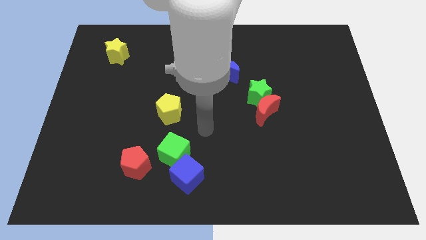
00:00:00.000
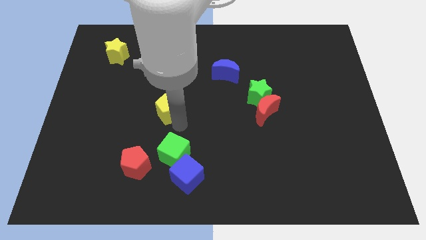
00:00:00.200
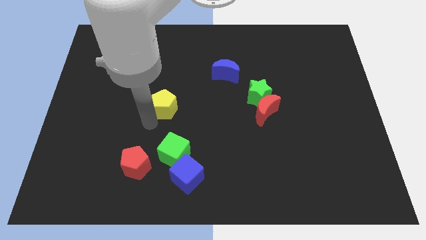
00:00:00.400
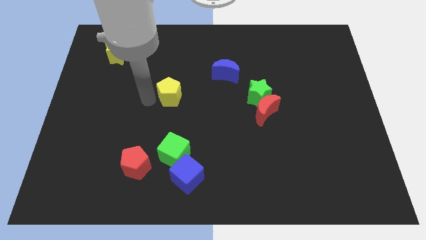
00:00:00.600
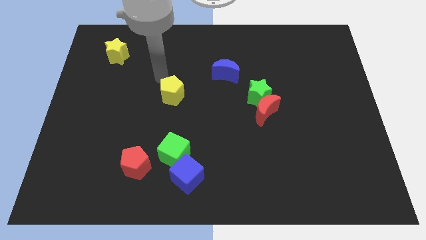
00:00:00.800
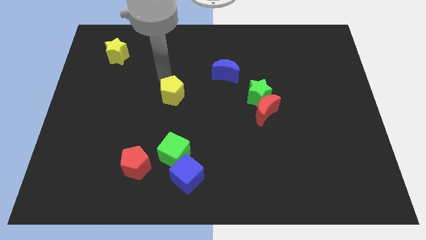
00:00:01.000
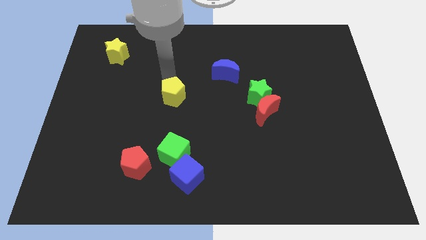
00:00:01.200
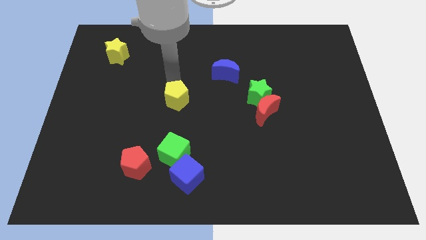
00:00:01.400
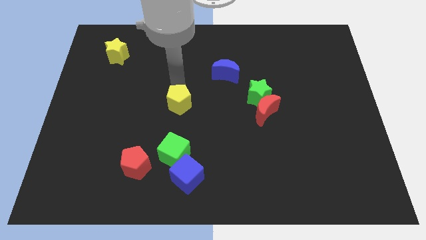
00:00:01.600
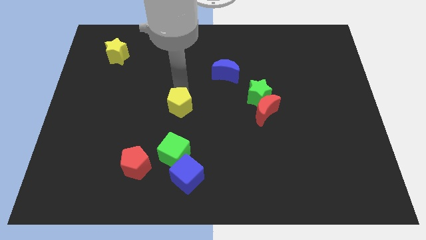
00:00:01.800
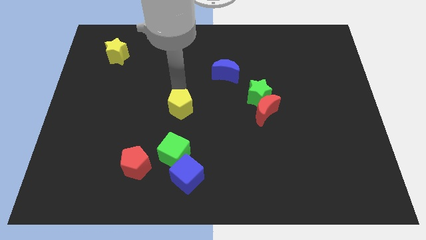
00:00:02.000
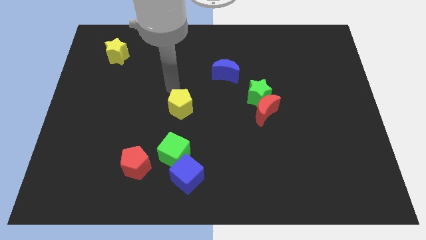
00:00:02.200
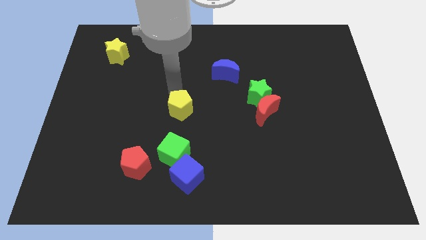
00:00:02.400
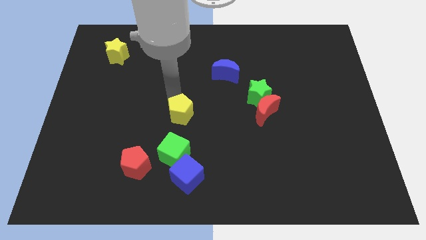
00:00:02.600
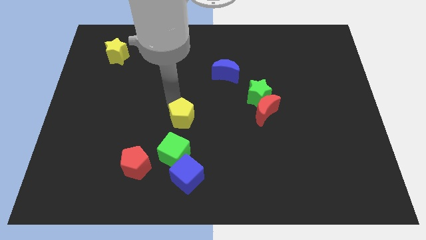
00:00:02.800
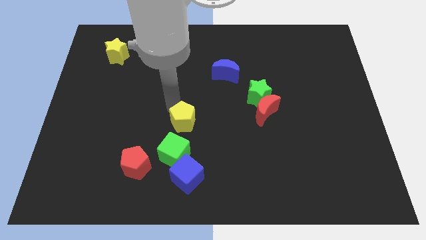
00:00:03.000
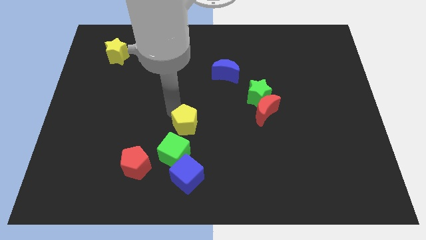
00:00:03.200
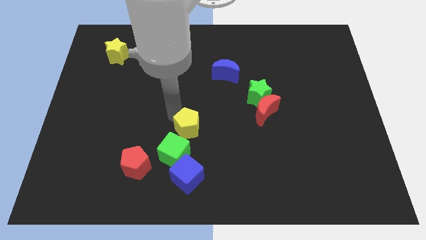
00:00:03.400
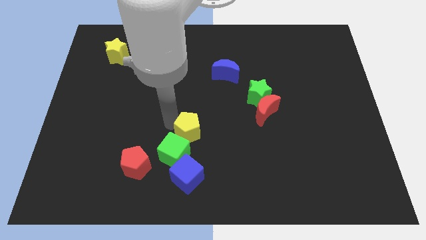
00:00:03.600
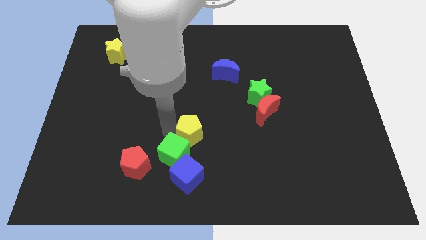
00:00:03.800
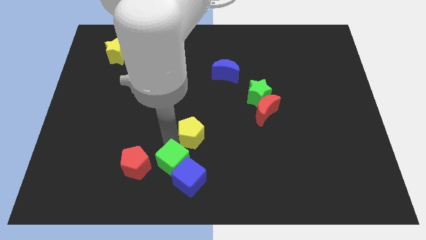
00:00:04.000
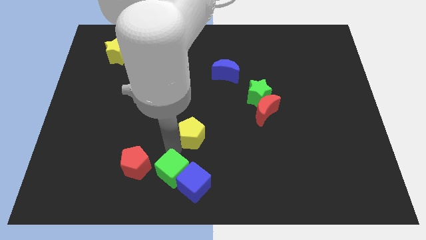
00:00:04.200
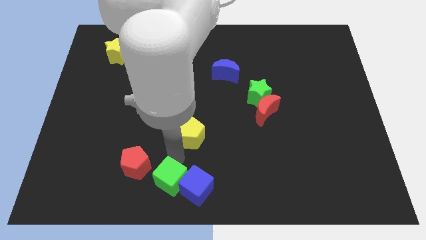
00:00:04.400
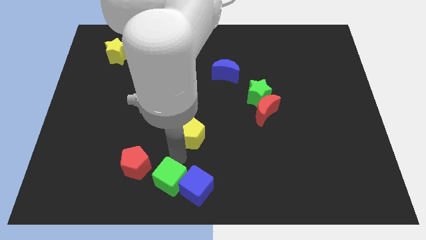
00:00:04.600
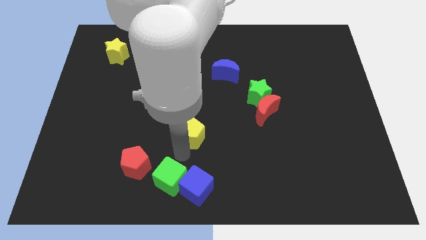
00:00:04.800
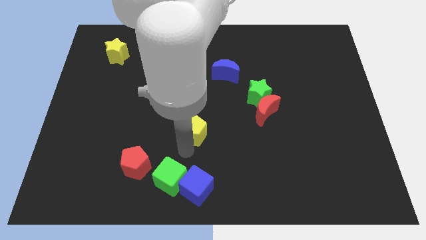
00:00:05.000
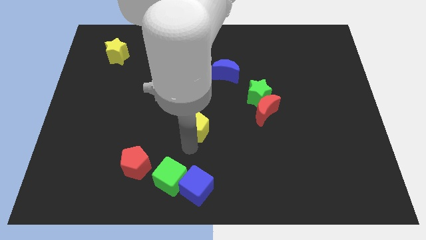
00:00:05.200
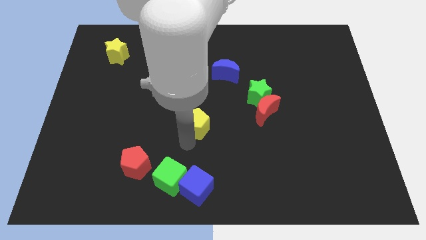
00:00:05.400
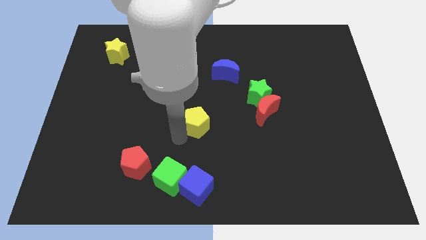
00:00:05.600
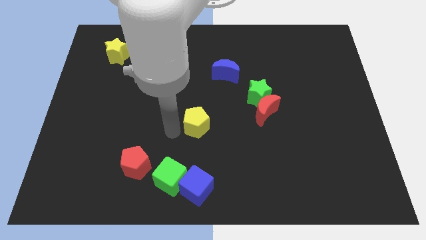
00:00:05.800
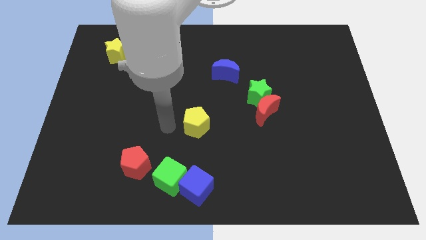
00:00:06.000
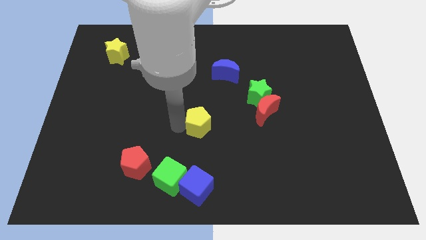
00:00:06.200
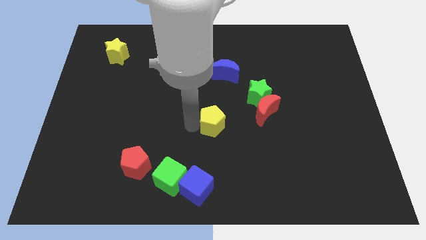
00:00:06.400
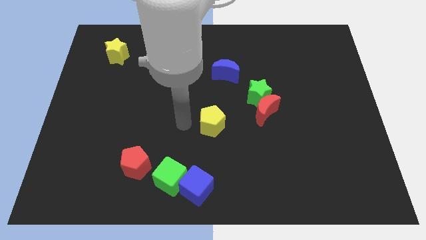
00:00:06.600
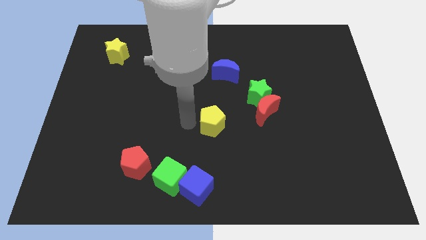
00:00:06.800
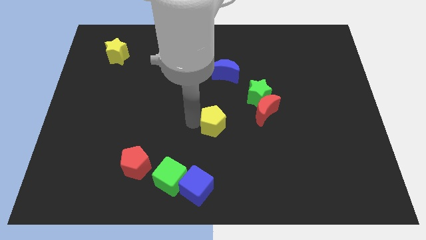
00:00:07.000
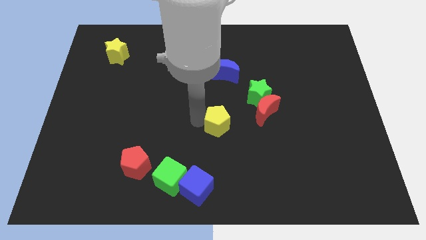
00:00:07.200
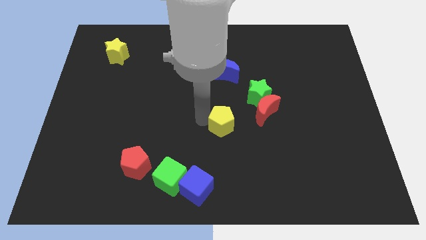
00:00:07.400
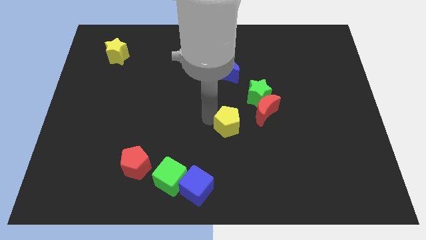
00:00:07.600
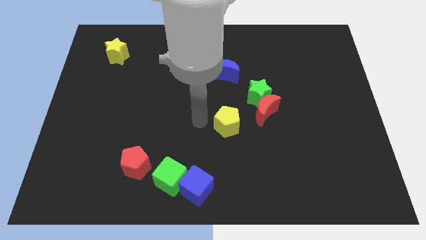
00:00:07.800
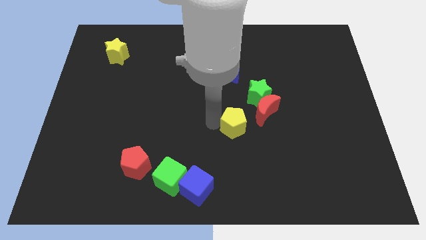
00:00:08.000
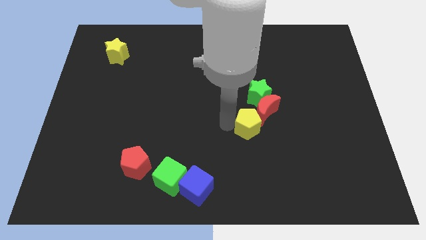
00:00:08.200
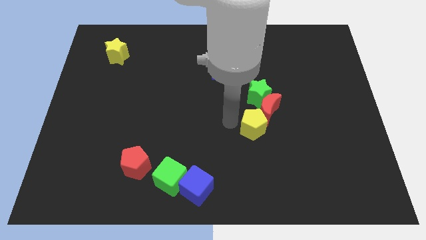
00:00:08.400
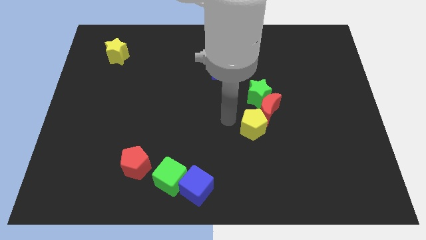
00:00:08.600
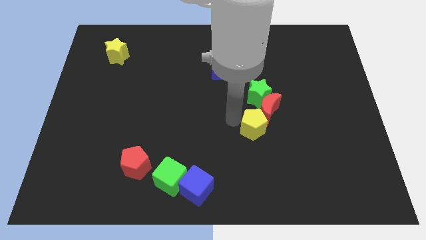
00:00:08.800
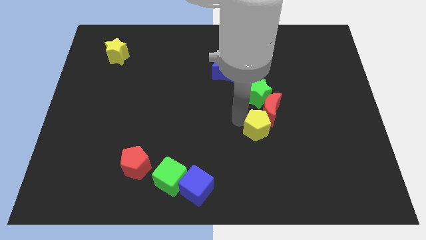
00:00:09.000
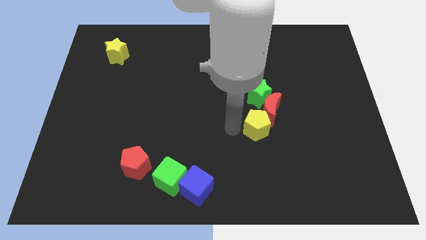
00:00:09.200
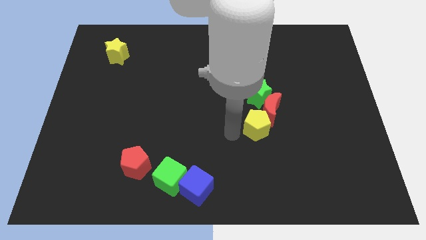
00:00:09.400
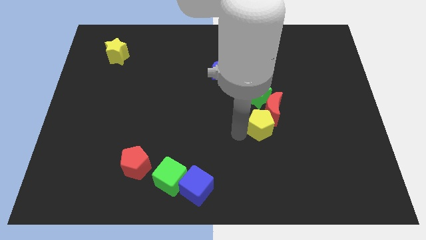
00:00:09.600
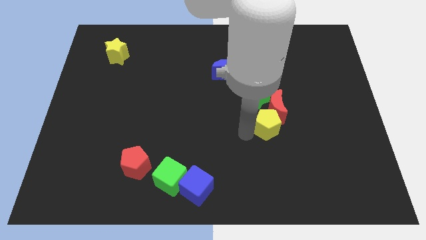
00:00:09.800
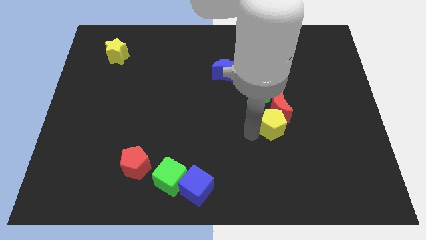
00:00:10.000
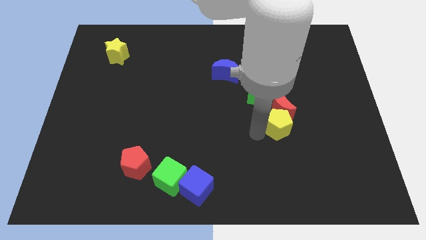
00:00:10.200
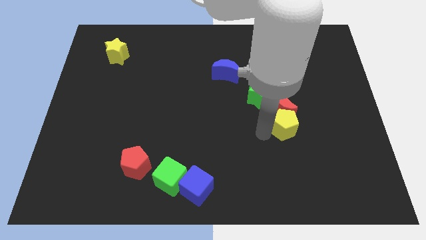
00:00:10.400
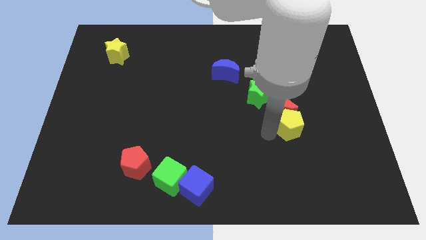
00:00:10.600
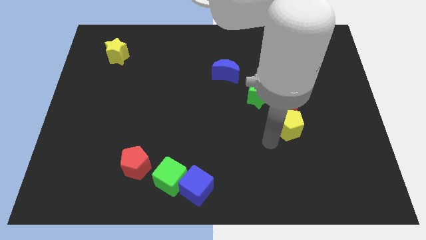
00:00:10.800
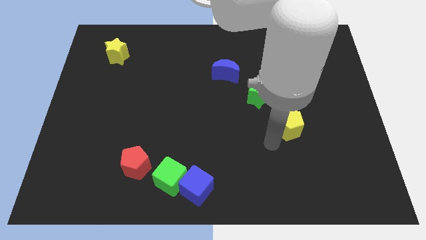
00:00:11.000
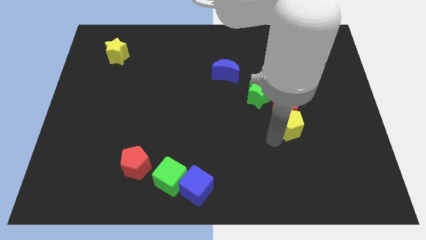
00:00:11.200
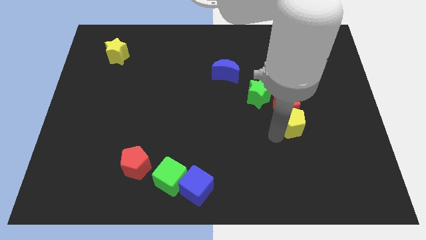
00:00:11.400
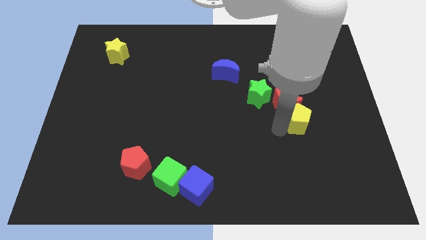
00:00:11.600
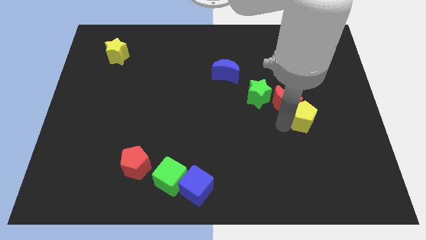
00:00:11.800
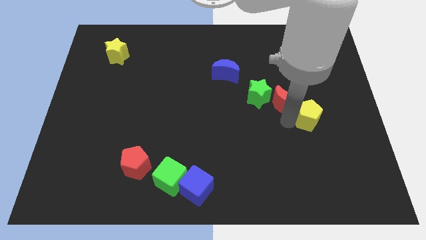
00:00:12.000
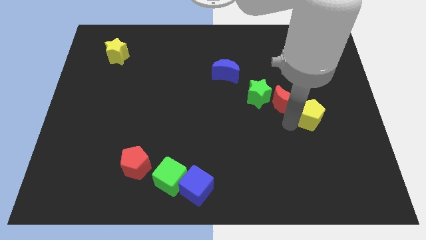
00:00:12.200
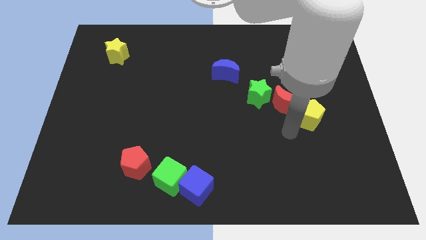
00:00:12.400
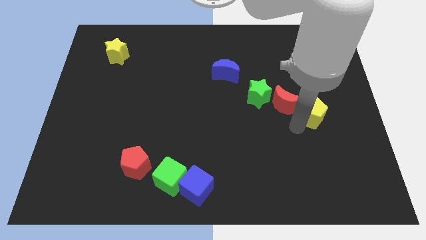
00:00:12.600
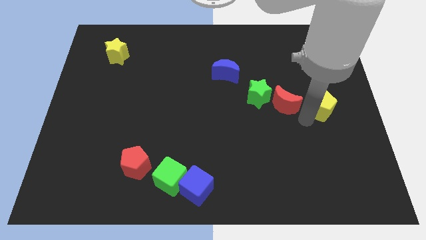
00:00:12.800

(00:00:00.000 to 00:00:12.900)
slide the yellow pentagon to the right side

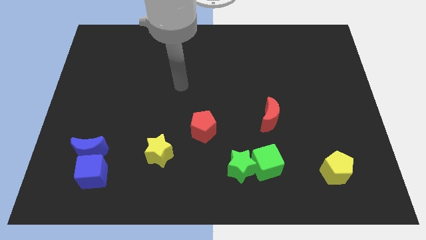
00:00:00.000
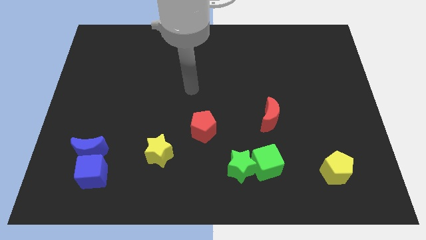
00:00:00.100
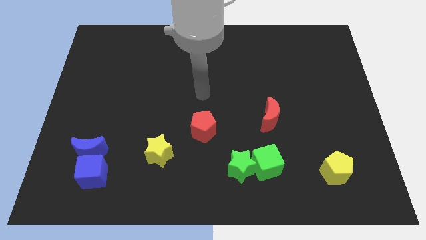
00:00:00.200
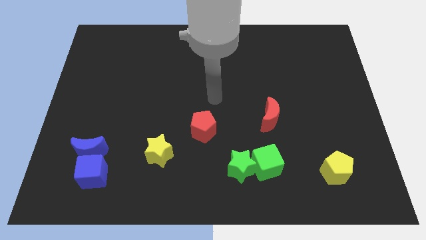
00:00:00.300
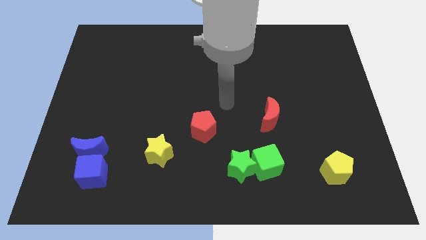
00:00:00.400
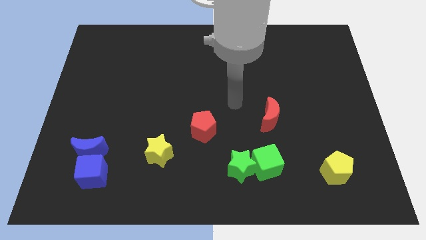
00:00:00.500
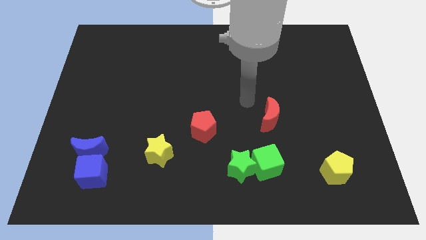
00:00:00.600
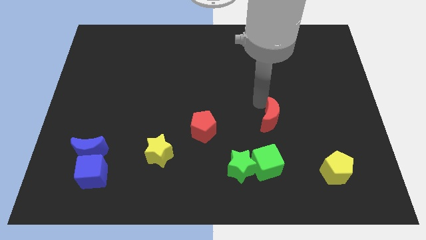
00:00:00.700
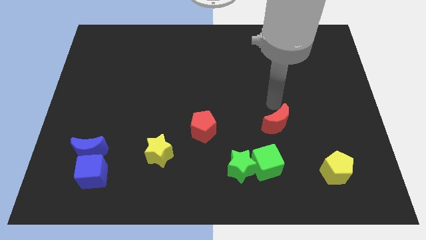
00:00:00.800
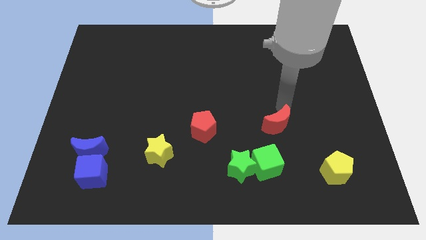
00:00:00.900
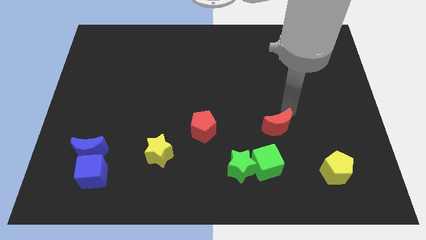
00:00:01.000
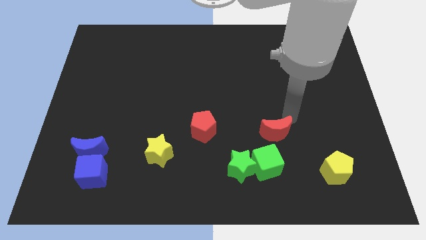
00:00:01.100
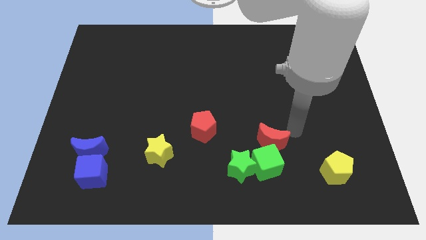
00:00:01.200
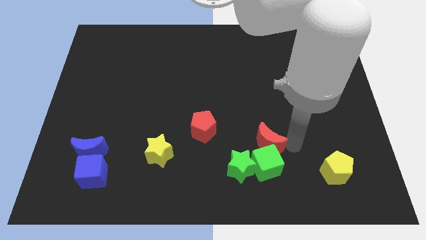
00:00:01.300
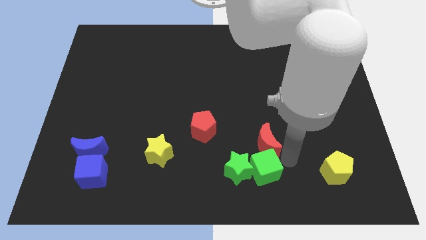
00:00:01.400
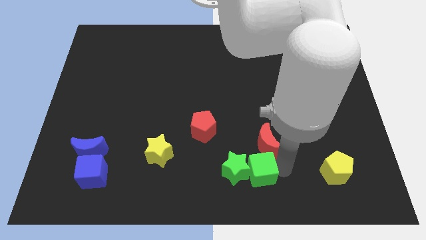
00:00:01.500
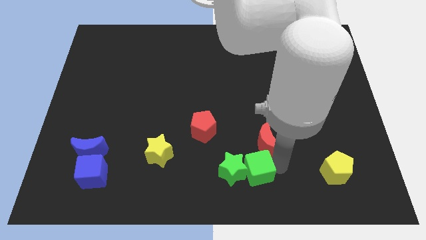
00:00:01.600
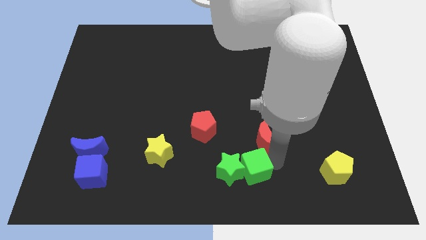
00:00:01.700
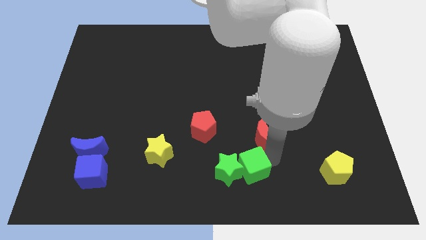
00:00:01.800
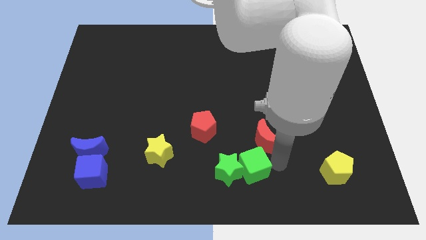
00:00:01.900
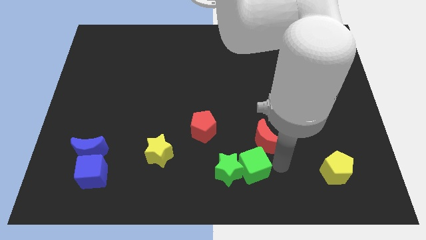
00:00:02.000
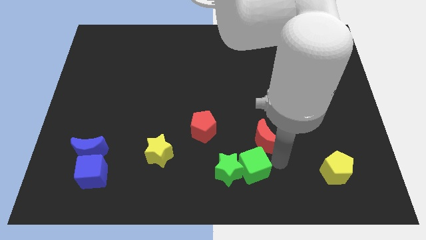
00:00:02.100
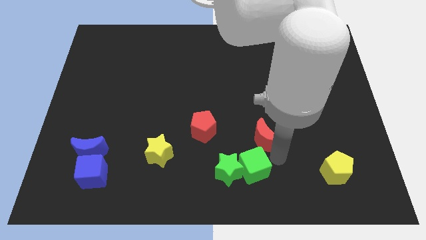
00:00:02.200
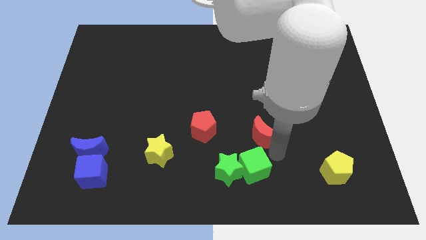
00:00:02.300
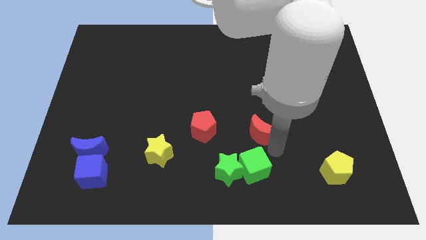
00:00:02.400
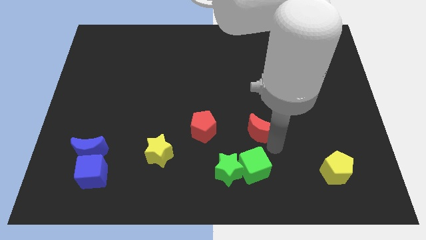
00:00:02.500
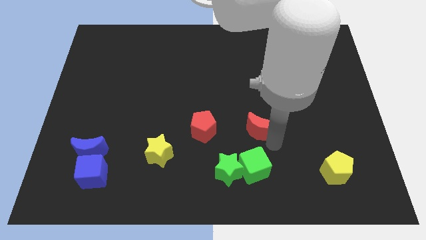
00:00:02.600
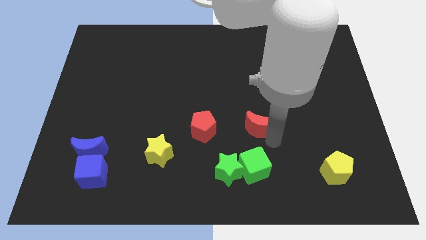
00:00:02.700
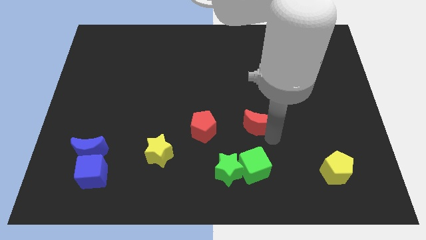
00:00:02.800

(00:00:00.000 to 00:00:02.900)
slide the red moon to the center of the board
